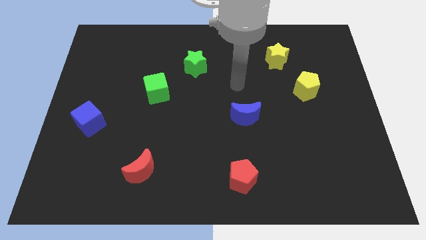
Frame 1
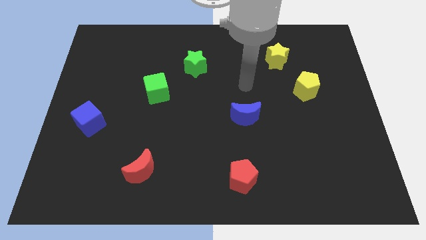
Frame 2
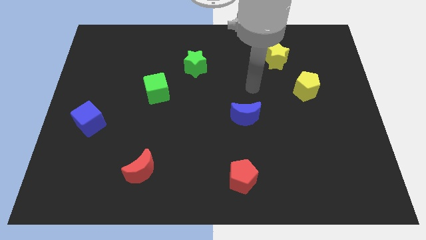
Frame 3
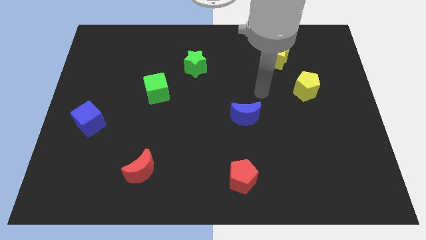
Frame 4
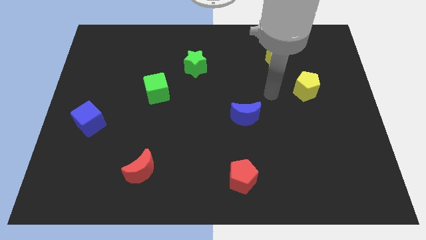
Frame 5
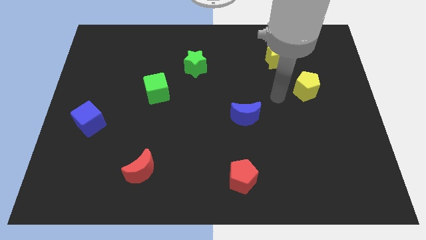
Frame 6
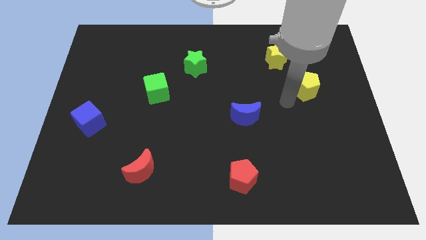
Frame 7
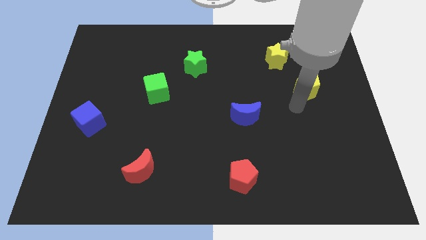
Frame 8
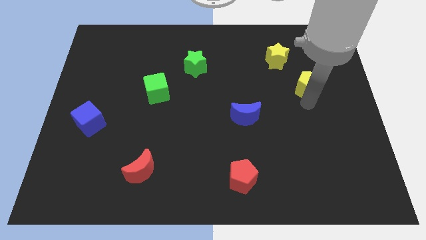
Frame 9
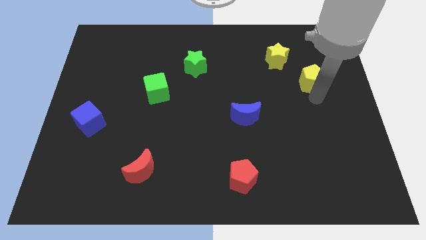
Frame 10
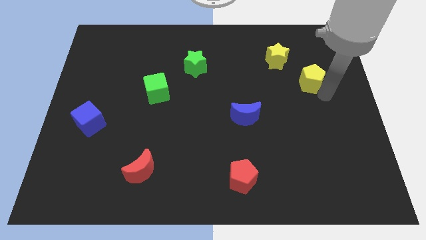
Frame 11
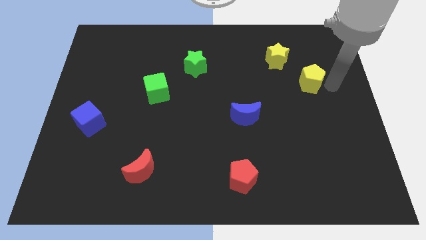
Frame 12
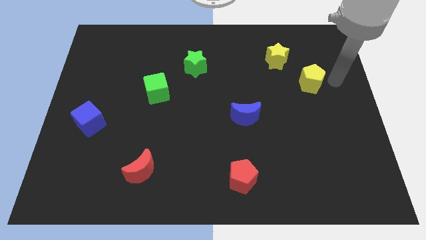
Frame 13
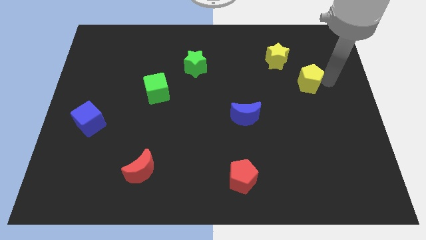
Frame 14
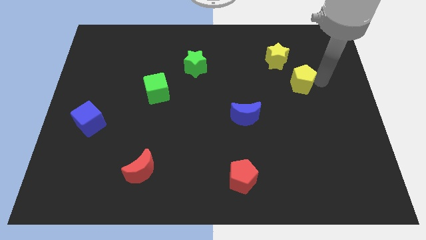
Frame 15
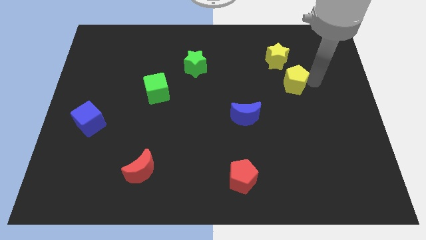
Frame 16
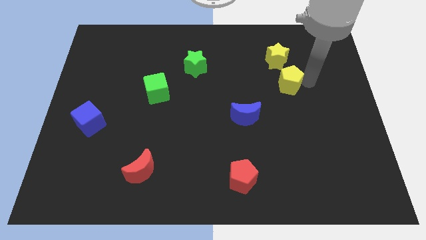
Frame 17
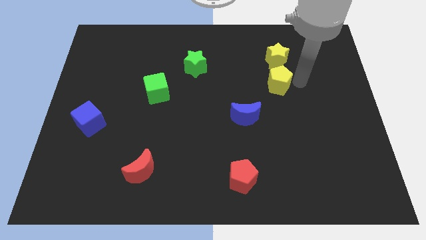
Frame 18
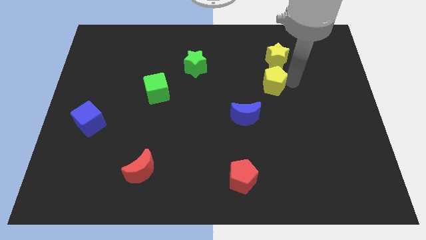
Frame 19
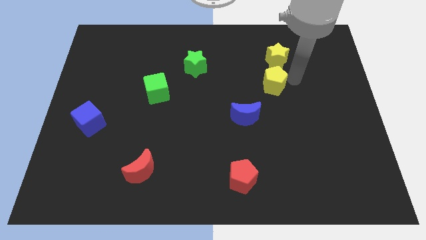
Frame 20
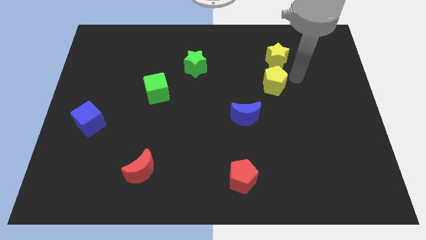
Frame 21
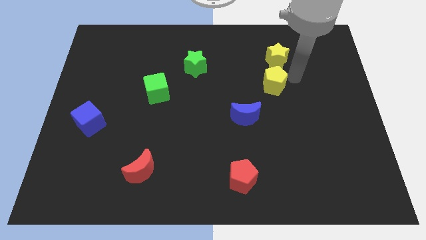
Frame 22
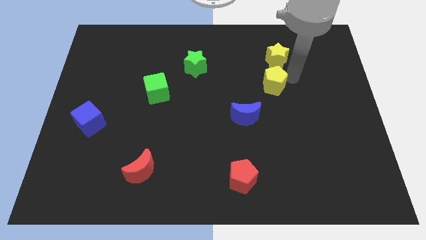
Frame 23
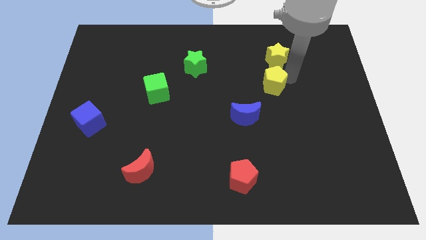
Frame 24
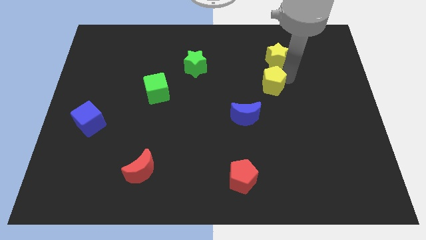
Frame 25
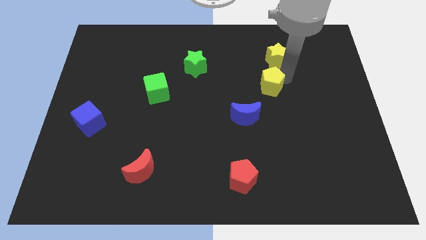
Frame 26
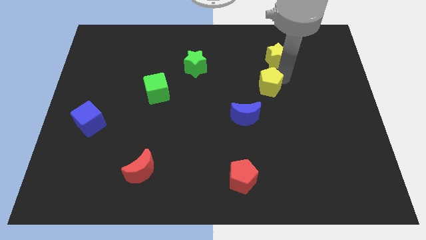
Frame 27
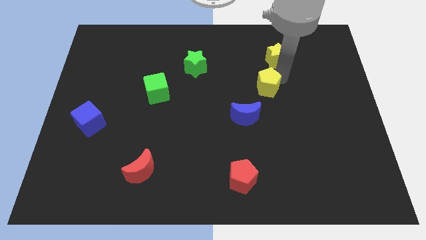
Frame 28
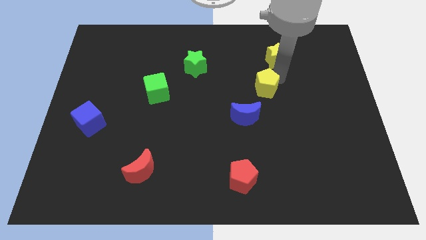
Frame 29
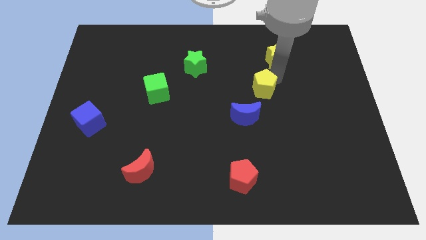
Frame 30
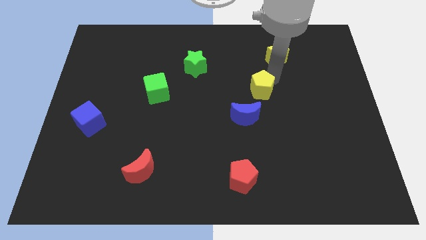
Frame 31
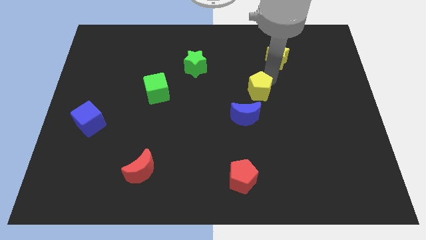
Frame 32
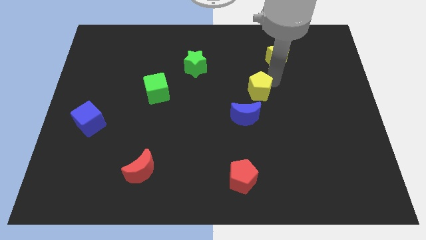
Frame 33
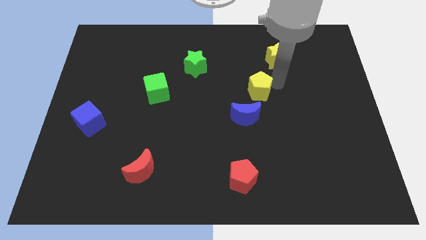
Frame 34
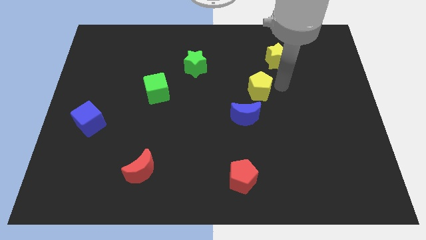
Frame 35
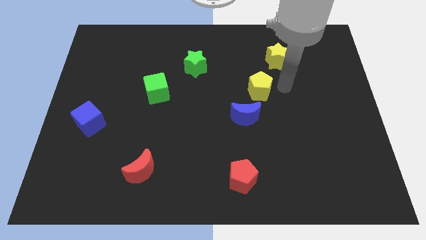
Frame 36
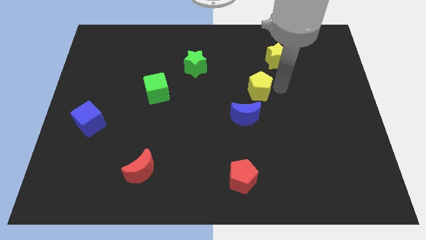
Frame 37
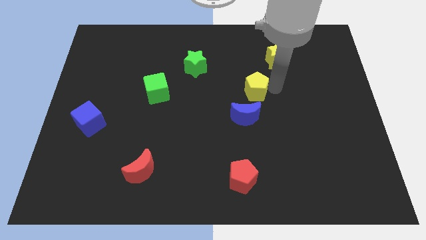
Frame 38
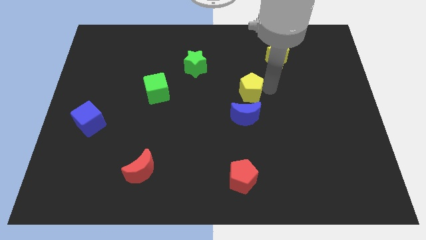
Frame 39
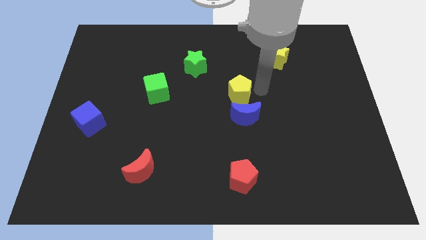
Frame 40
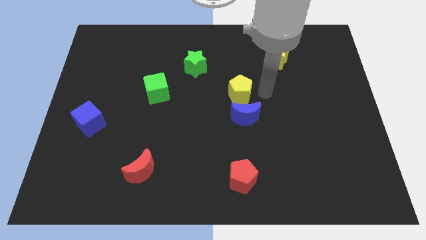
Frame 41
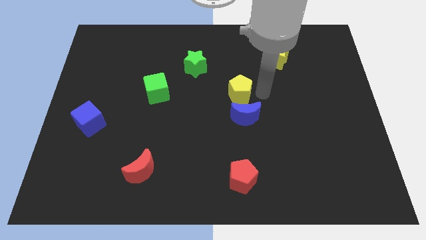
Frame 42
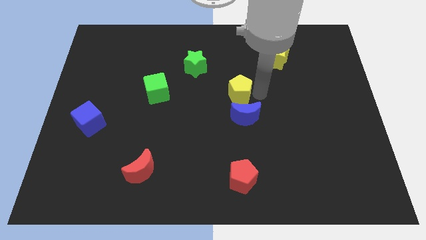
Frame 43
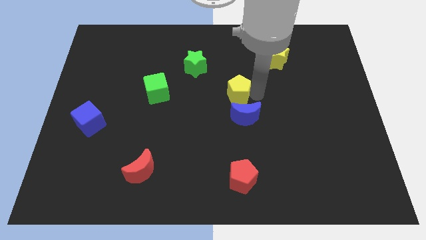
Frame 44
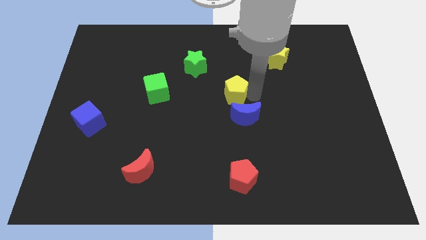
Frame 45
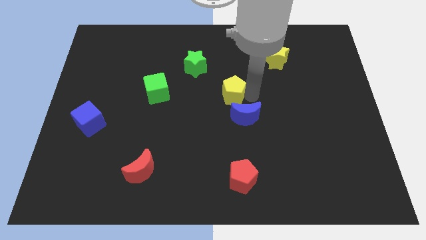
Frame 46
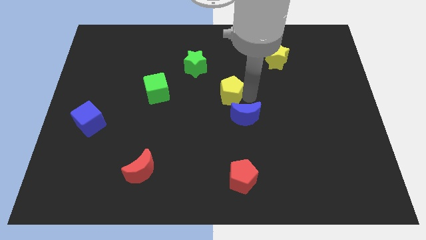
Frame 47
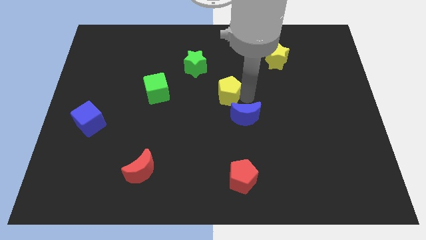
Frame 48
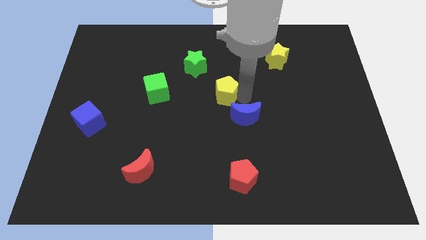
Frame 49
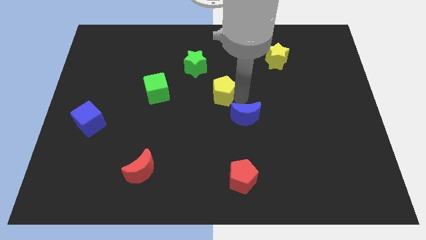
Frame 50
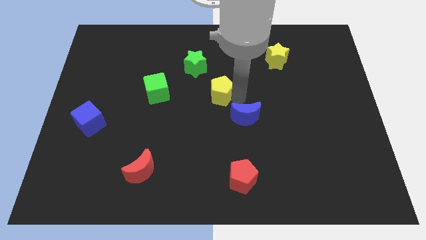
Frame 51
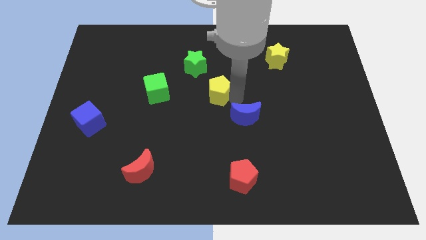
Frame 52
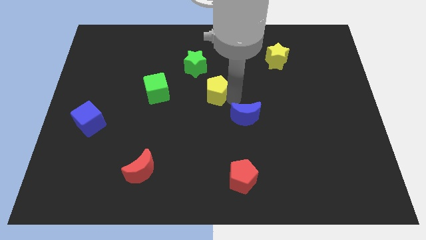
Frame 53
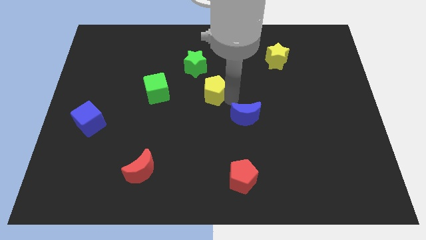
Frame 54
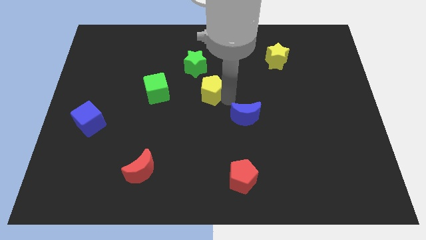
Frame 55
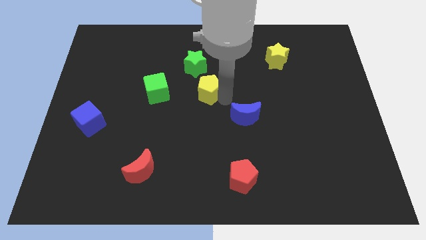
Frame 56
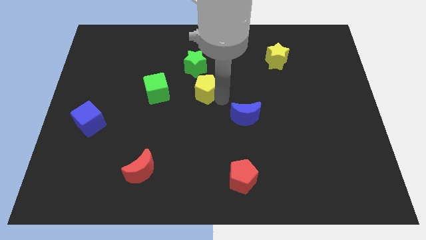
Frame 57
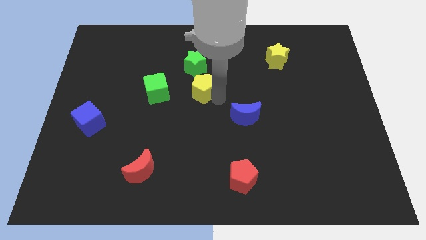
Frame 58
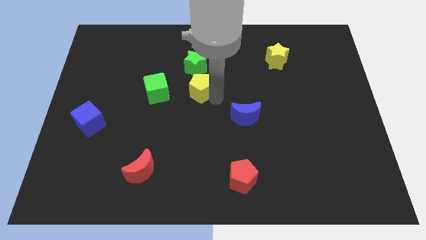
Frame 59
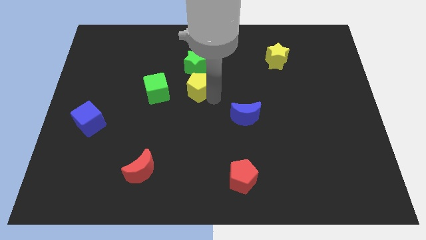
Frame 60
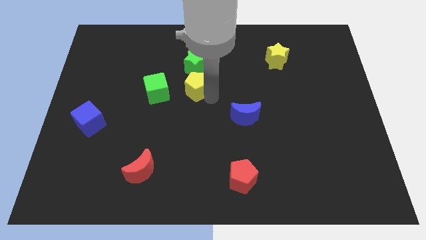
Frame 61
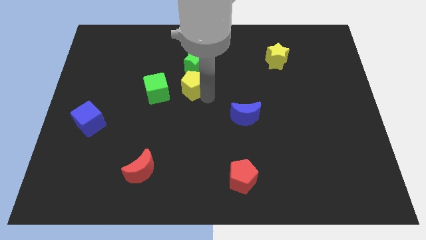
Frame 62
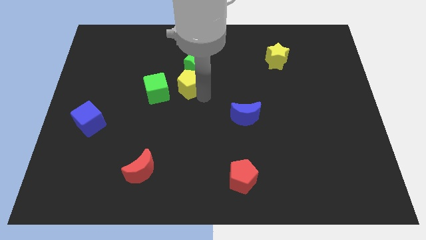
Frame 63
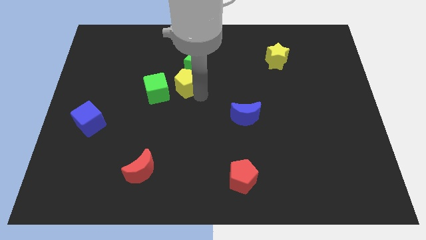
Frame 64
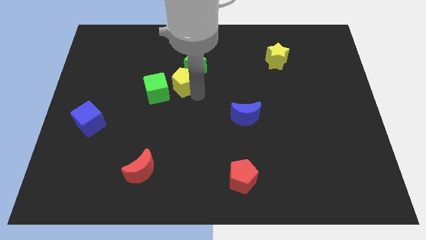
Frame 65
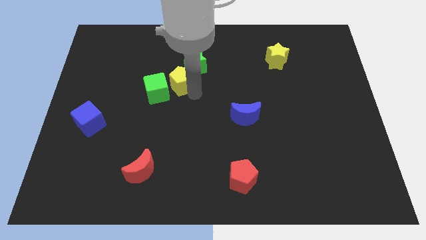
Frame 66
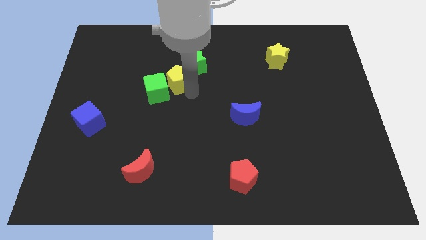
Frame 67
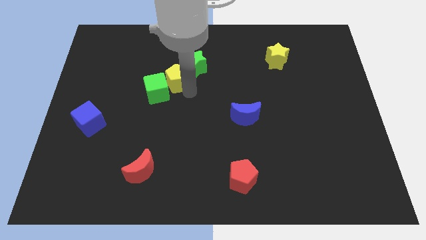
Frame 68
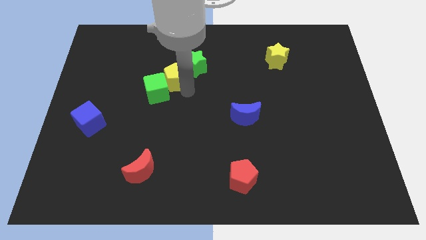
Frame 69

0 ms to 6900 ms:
move the yellow pentagon just left of the green star

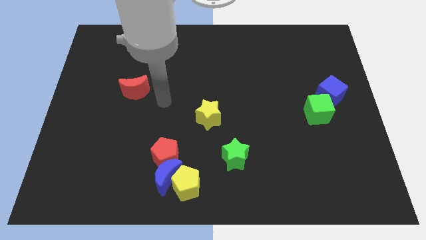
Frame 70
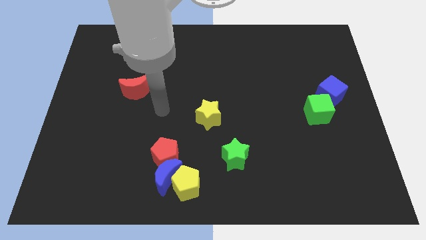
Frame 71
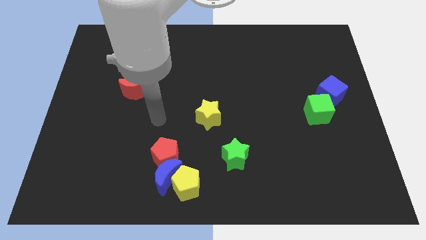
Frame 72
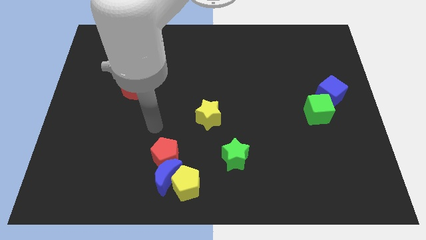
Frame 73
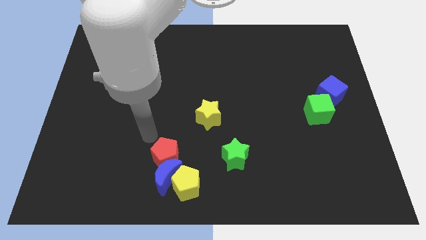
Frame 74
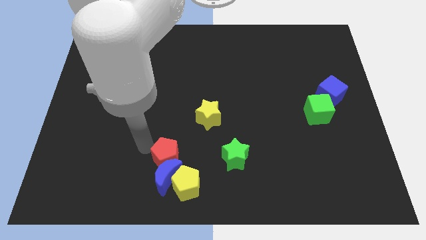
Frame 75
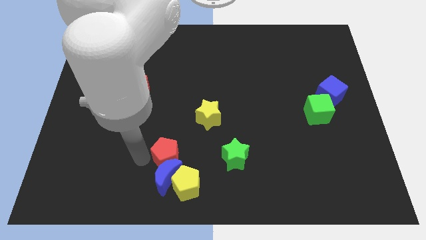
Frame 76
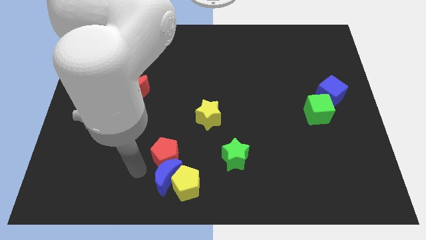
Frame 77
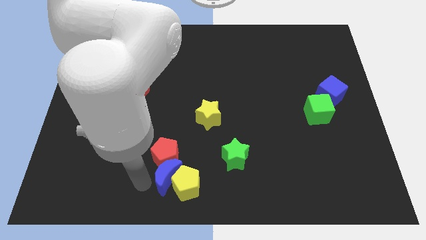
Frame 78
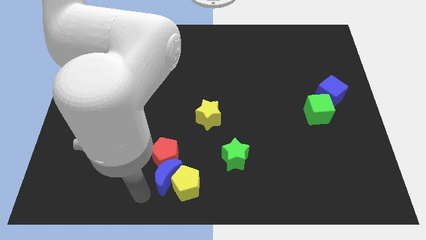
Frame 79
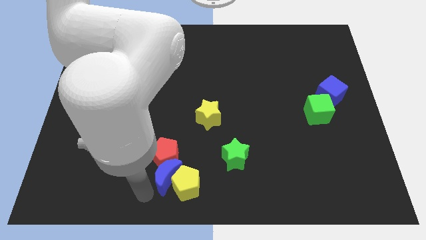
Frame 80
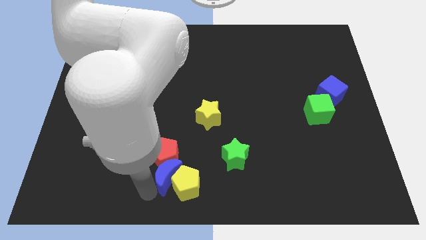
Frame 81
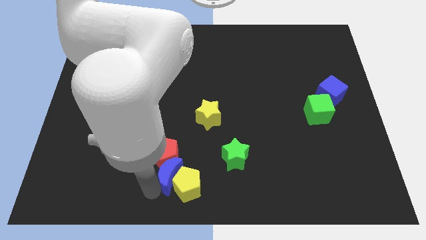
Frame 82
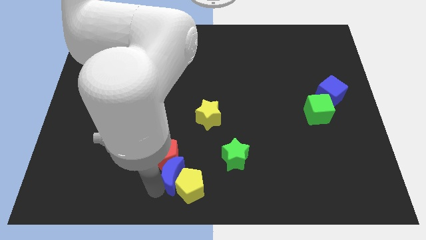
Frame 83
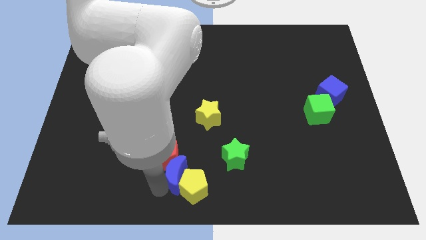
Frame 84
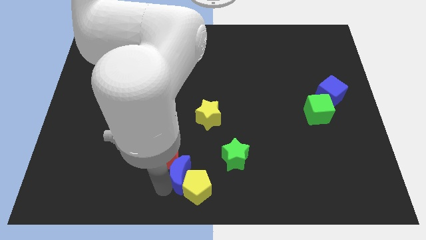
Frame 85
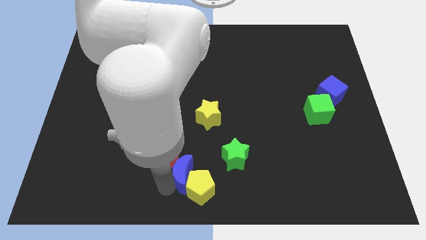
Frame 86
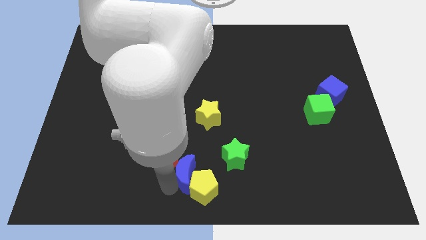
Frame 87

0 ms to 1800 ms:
push the blue moon to the bottom left of the green star
